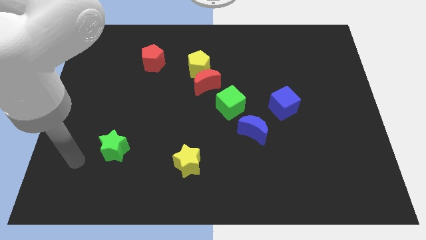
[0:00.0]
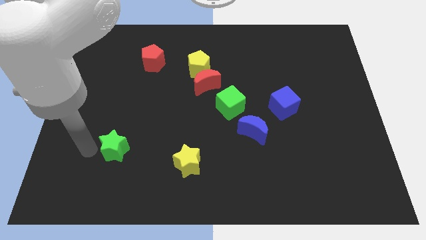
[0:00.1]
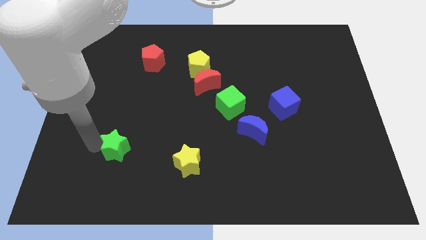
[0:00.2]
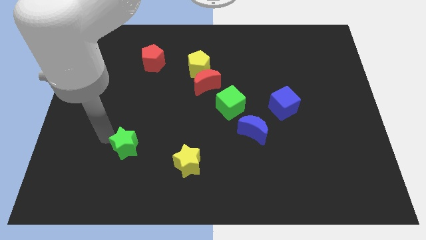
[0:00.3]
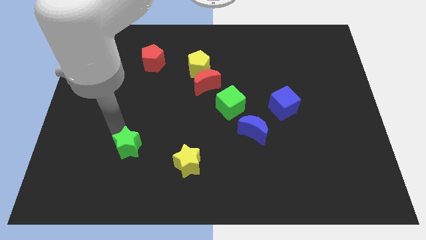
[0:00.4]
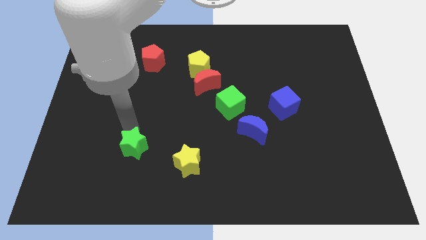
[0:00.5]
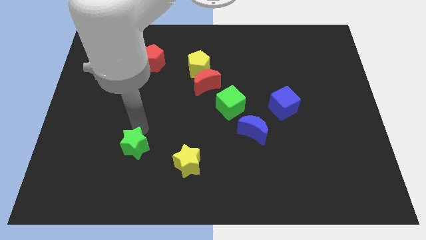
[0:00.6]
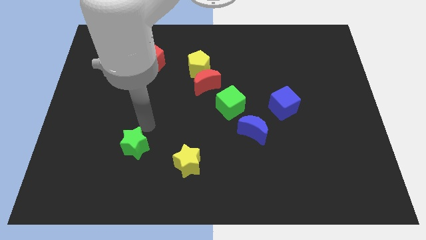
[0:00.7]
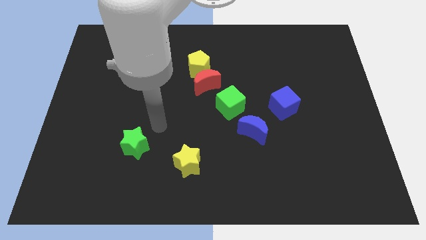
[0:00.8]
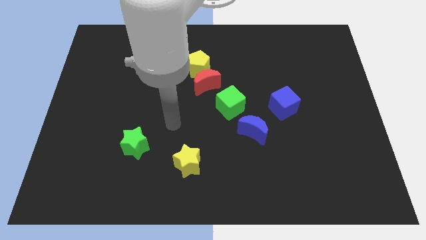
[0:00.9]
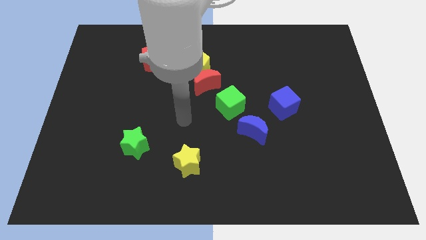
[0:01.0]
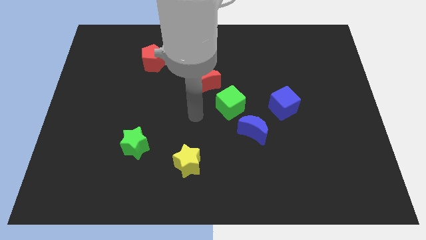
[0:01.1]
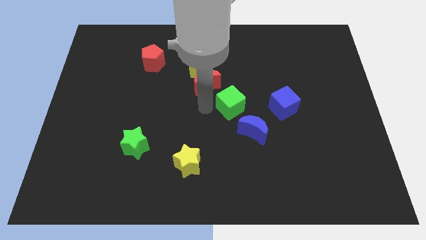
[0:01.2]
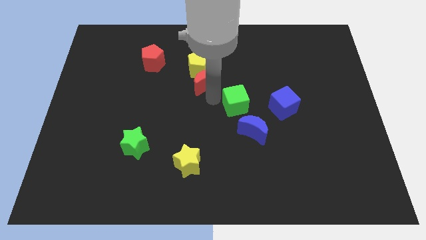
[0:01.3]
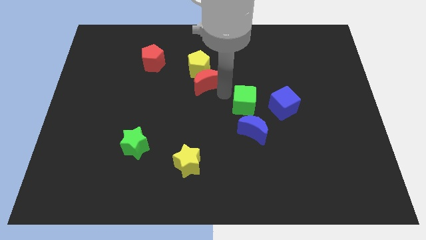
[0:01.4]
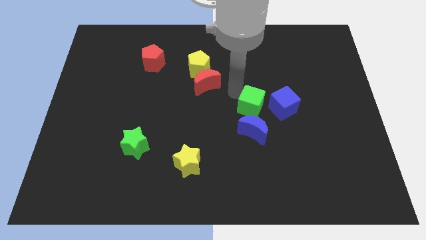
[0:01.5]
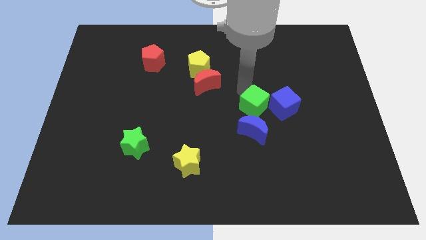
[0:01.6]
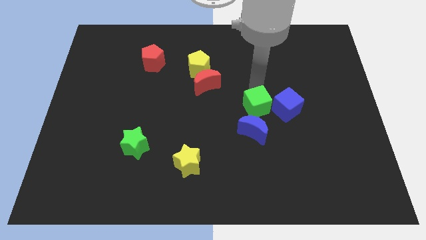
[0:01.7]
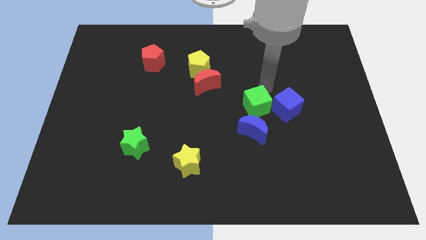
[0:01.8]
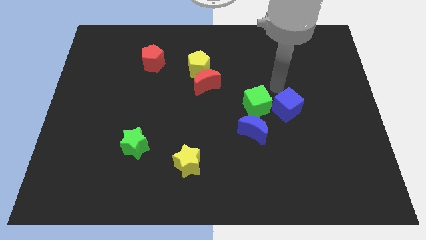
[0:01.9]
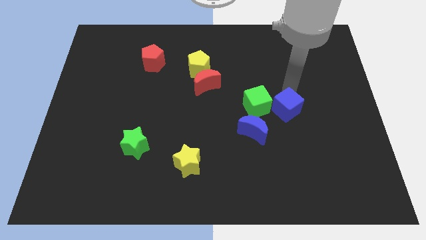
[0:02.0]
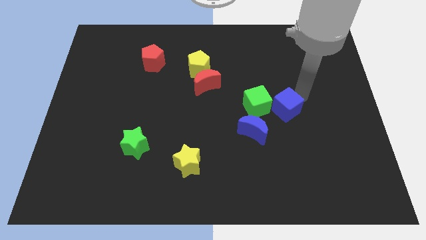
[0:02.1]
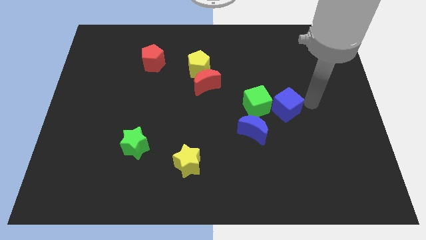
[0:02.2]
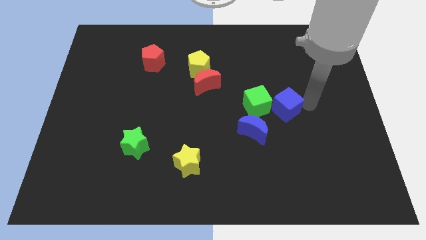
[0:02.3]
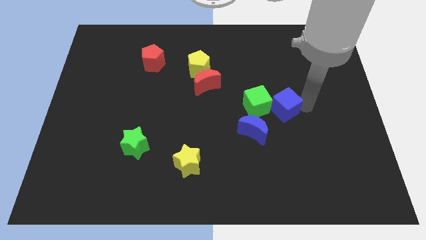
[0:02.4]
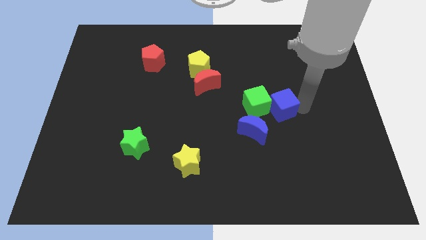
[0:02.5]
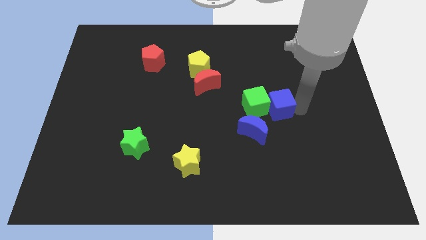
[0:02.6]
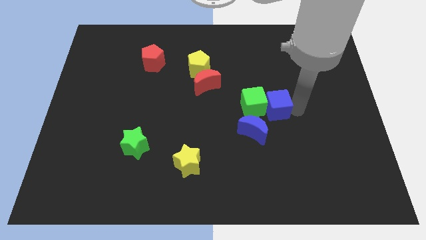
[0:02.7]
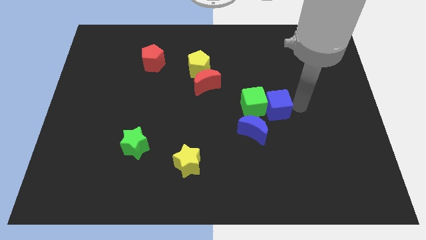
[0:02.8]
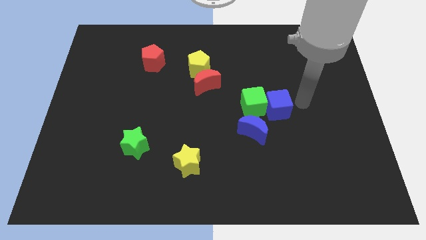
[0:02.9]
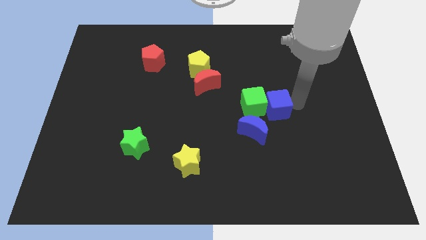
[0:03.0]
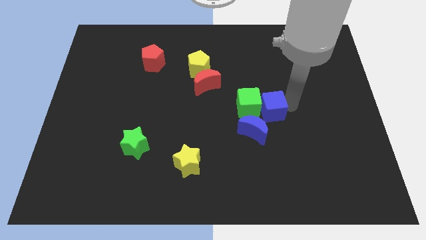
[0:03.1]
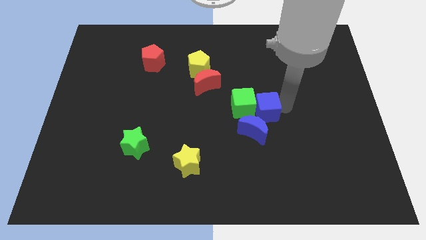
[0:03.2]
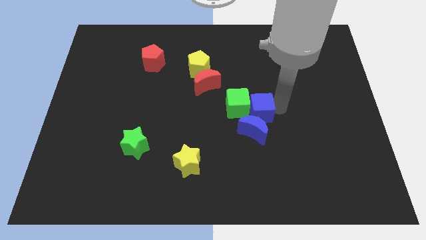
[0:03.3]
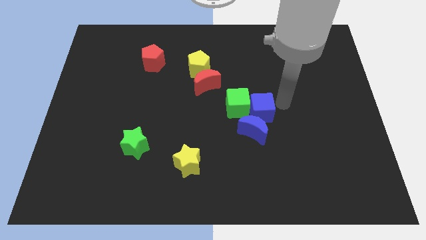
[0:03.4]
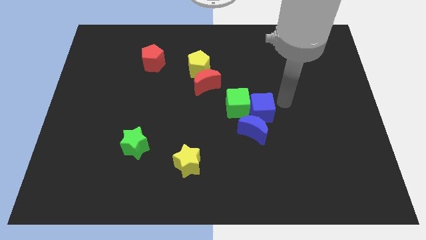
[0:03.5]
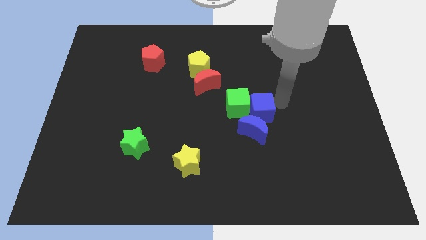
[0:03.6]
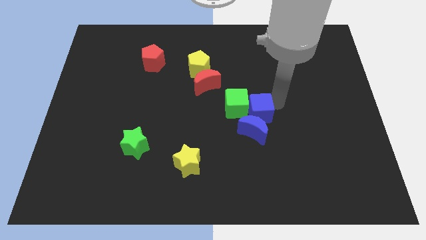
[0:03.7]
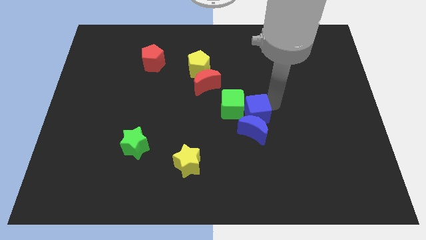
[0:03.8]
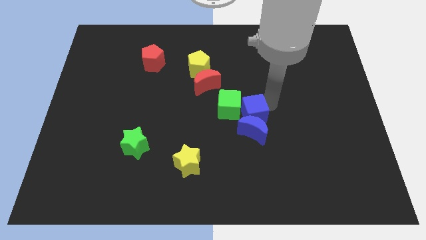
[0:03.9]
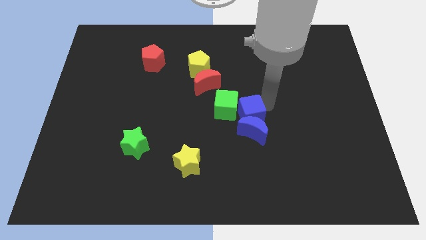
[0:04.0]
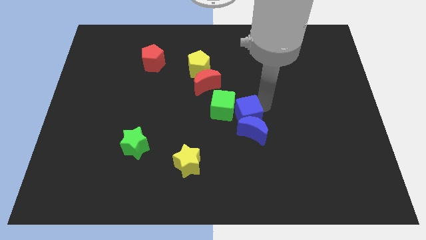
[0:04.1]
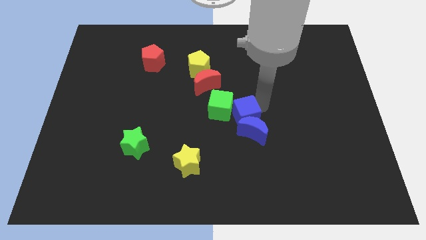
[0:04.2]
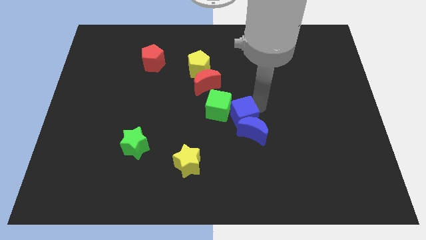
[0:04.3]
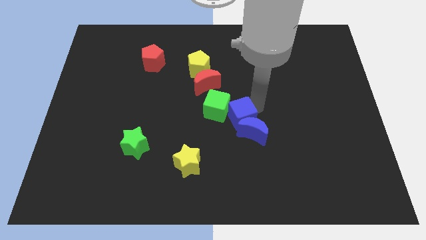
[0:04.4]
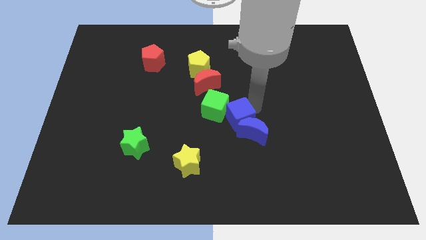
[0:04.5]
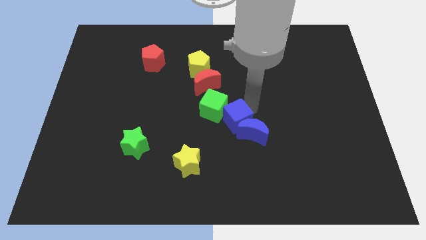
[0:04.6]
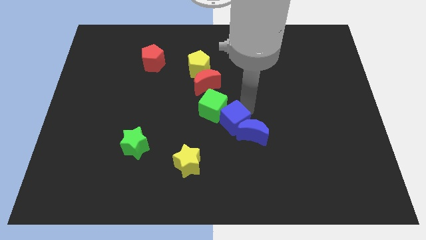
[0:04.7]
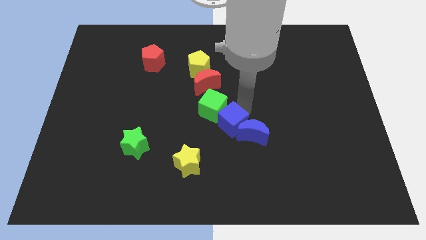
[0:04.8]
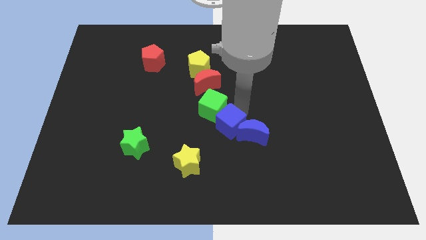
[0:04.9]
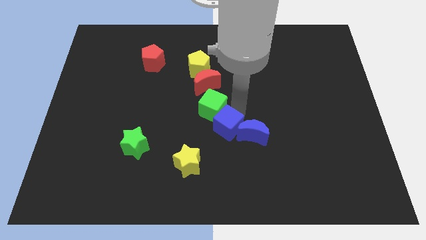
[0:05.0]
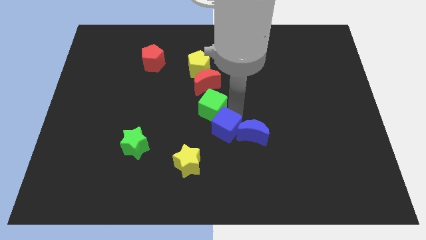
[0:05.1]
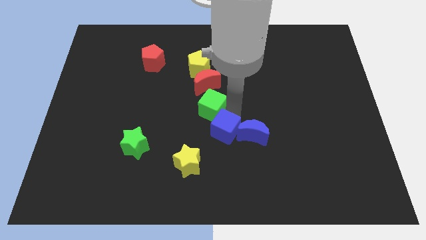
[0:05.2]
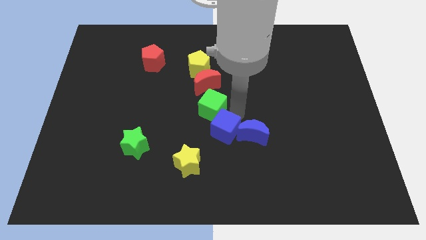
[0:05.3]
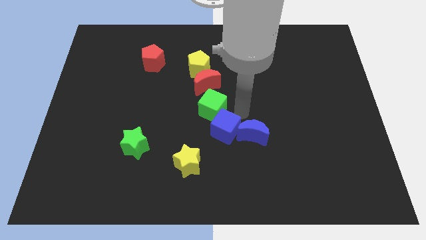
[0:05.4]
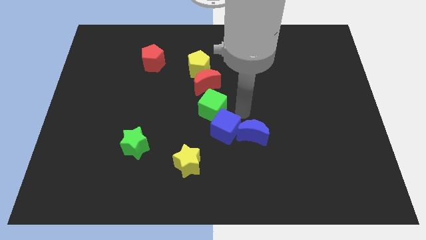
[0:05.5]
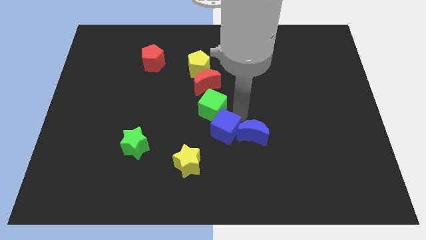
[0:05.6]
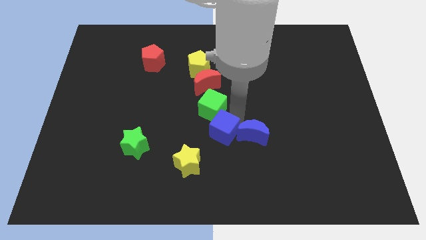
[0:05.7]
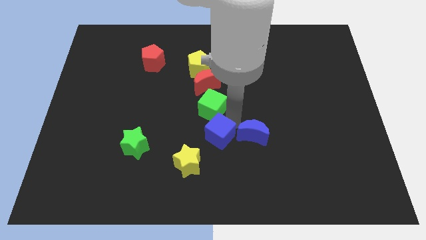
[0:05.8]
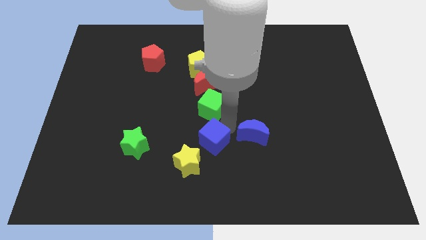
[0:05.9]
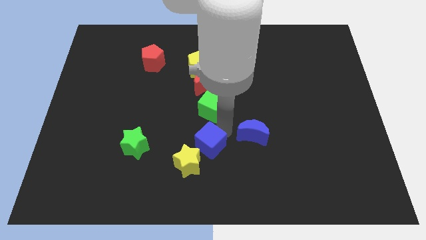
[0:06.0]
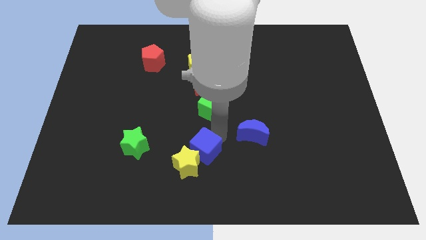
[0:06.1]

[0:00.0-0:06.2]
push the blue cube next to the yellow star

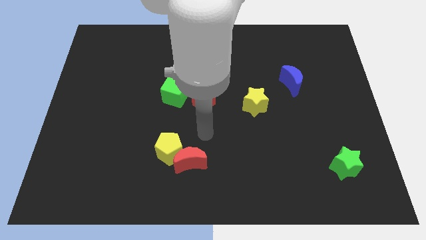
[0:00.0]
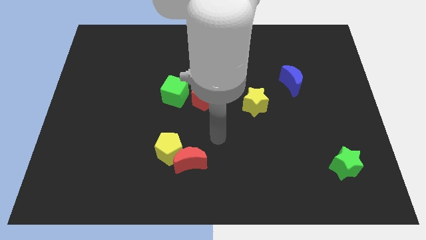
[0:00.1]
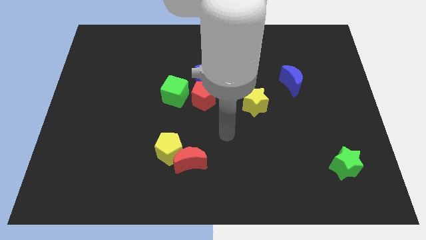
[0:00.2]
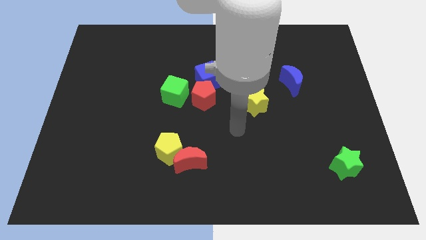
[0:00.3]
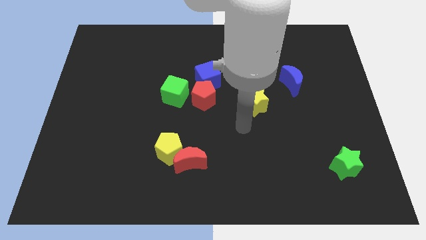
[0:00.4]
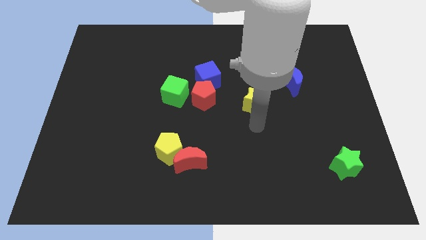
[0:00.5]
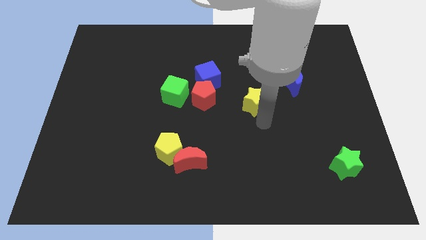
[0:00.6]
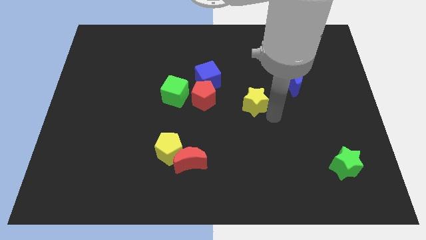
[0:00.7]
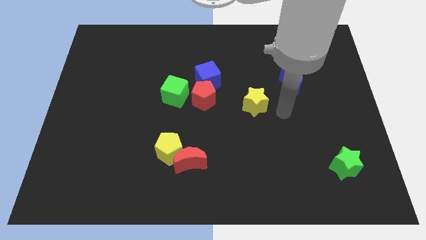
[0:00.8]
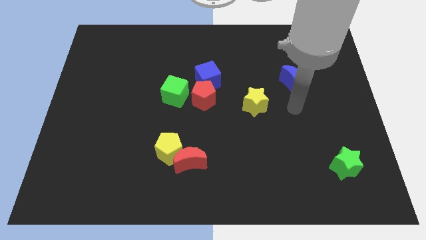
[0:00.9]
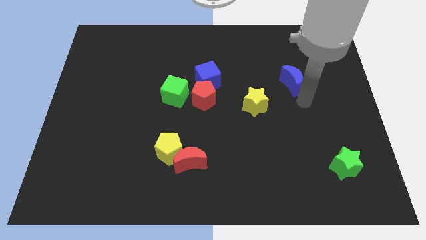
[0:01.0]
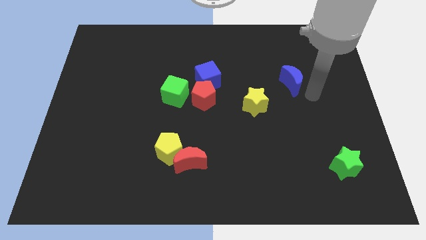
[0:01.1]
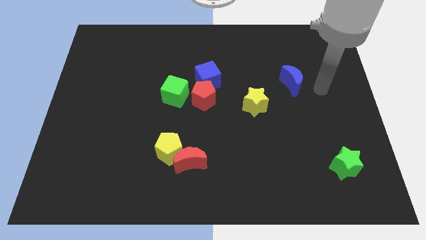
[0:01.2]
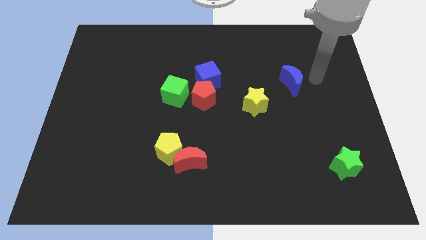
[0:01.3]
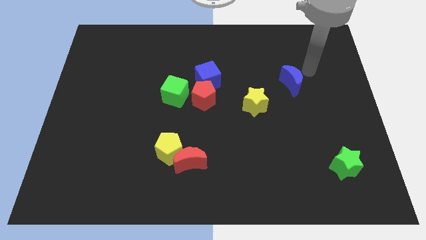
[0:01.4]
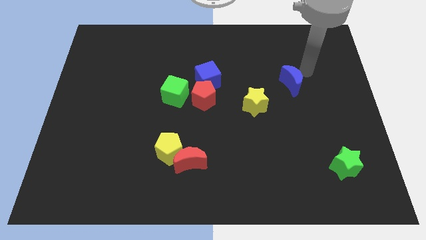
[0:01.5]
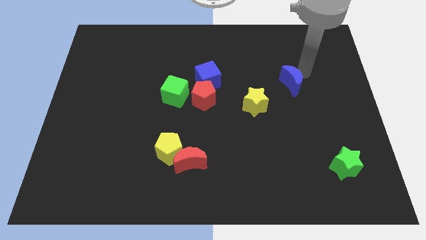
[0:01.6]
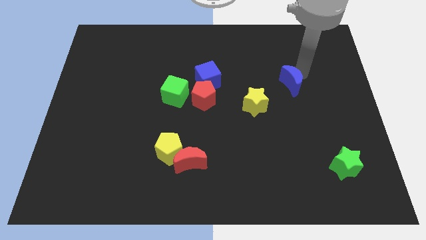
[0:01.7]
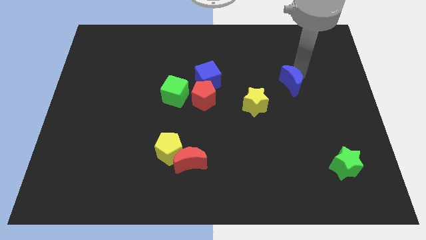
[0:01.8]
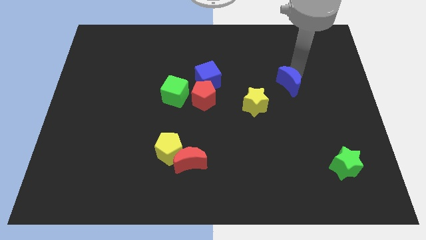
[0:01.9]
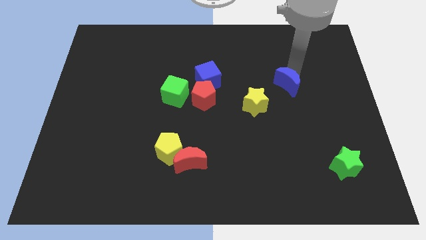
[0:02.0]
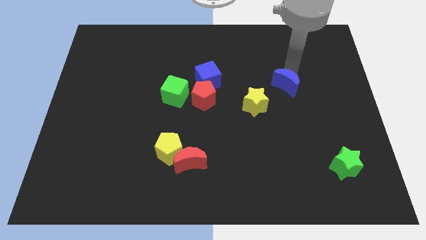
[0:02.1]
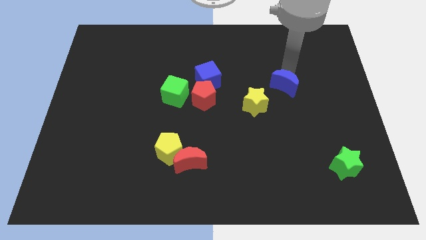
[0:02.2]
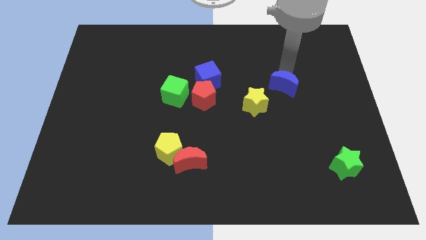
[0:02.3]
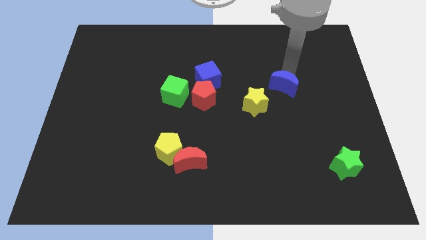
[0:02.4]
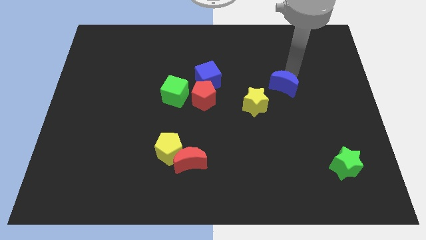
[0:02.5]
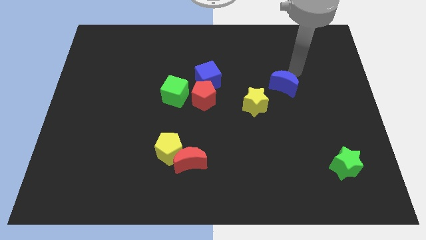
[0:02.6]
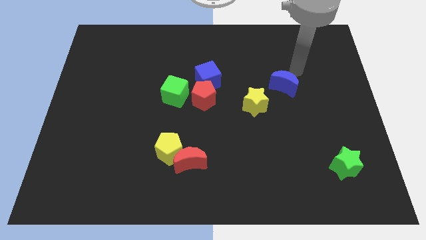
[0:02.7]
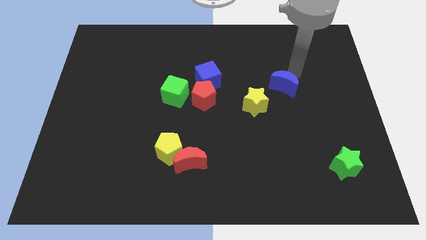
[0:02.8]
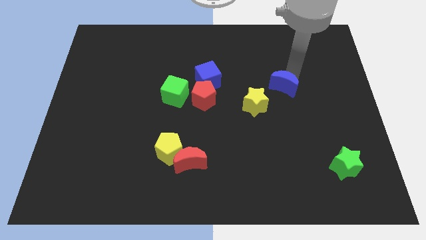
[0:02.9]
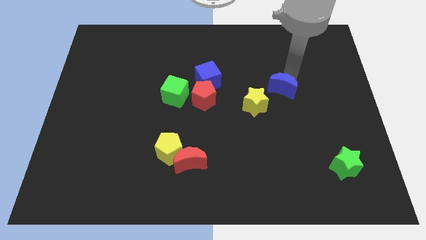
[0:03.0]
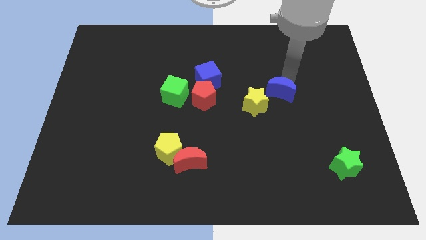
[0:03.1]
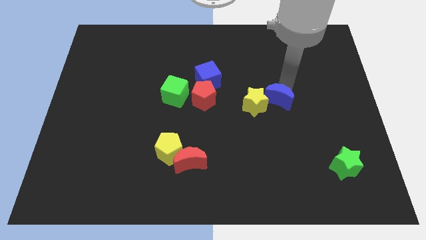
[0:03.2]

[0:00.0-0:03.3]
move the blue moon to the yellow star
